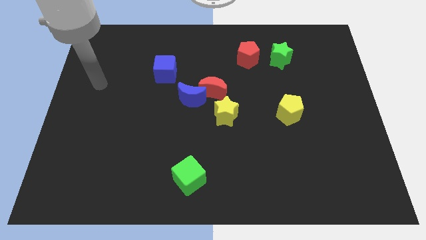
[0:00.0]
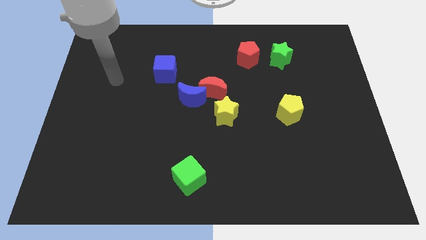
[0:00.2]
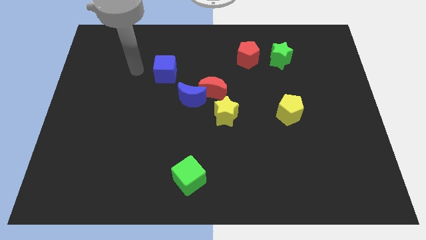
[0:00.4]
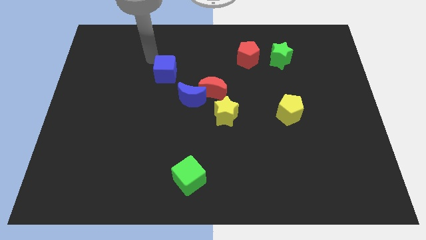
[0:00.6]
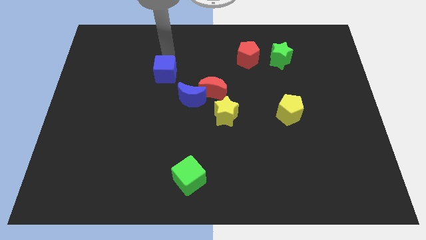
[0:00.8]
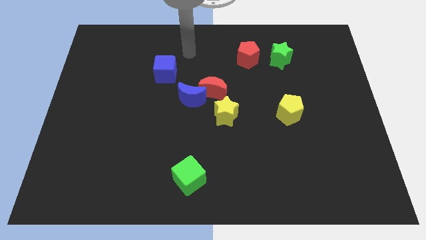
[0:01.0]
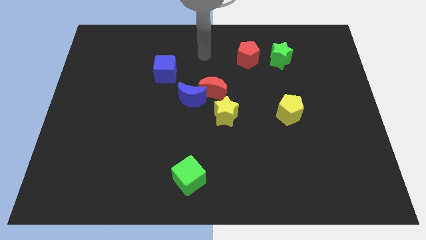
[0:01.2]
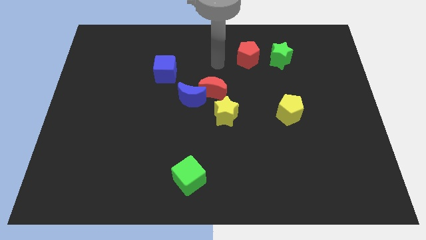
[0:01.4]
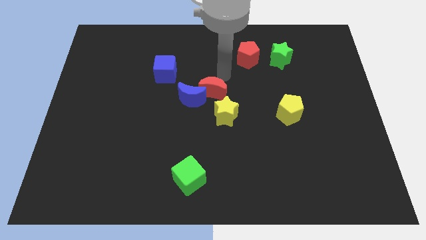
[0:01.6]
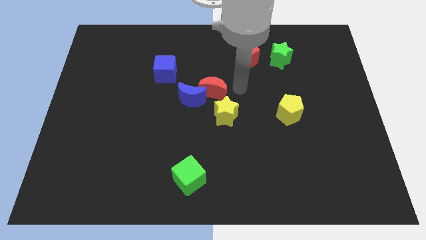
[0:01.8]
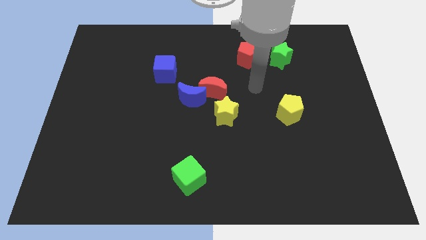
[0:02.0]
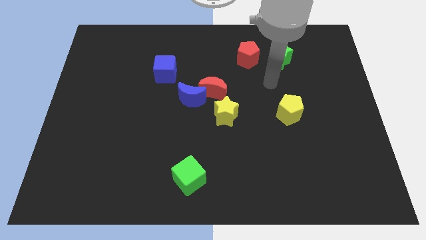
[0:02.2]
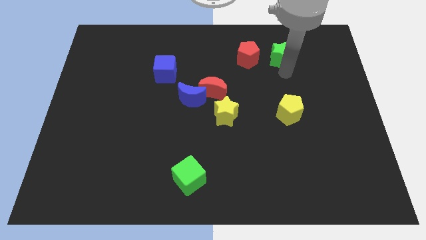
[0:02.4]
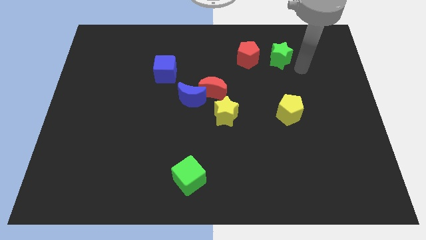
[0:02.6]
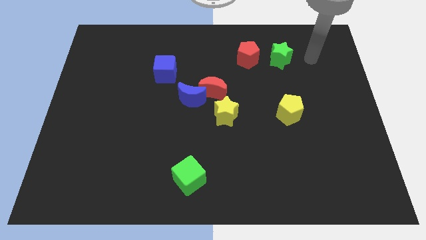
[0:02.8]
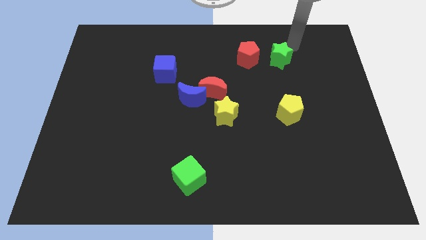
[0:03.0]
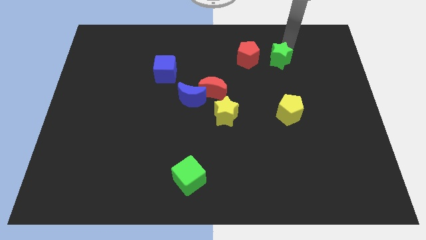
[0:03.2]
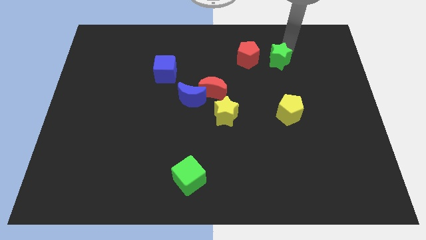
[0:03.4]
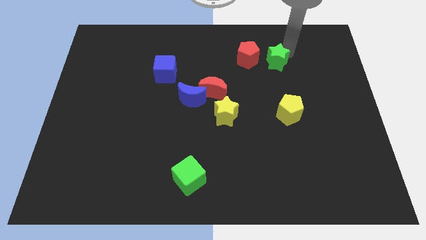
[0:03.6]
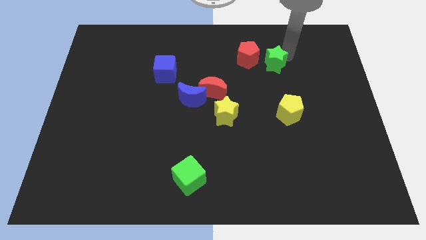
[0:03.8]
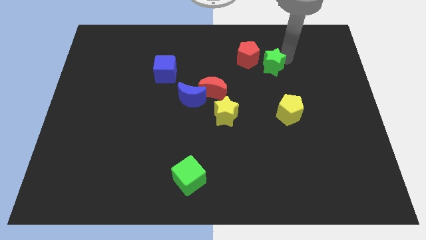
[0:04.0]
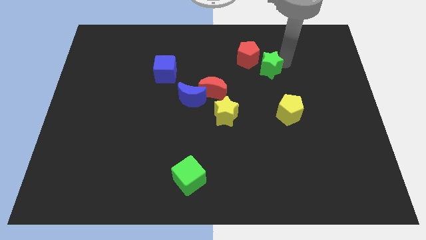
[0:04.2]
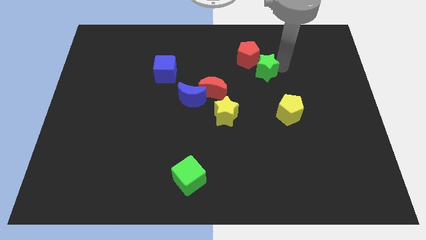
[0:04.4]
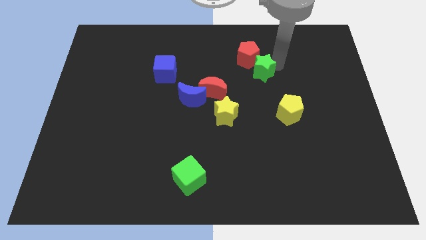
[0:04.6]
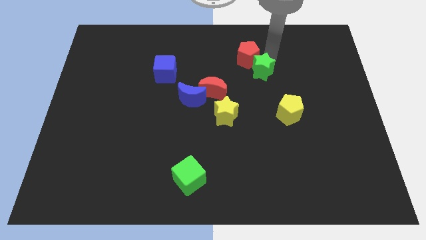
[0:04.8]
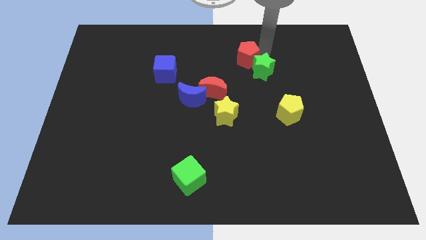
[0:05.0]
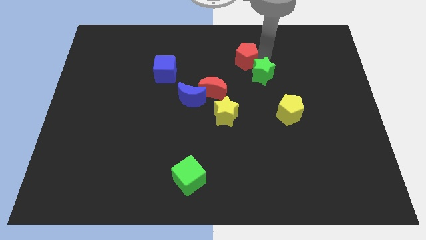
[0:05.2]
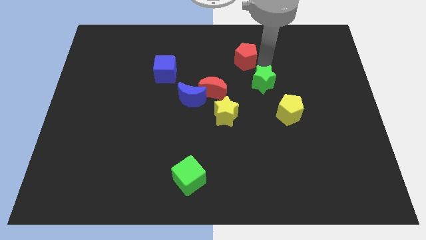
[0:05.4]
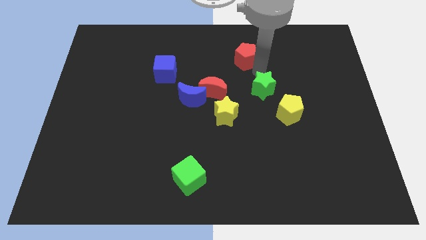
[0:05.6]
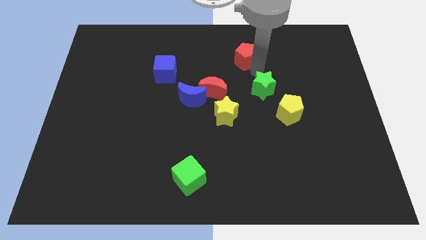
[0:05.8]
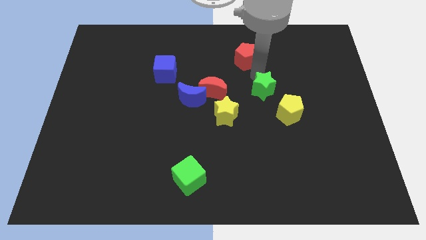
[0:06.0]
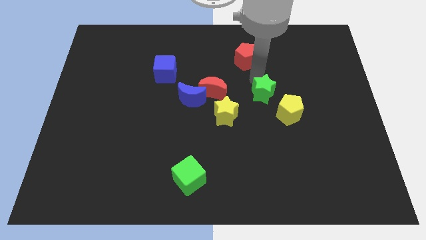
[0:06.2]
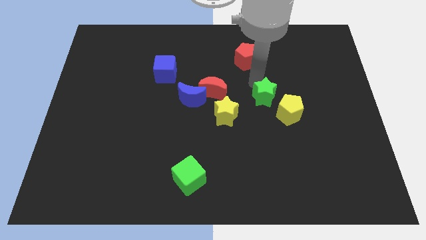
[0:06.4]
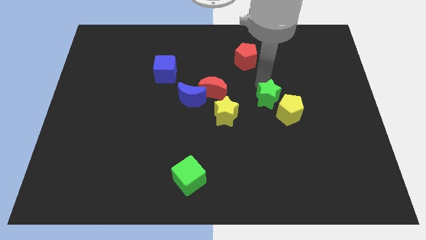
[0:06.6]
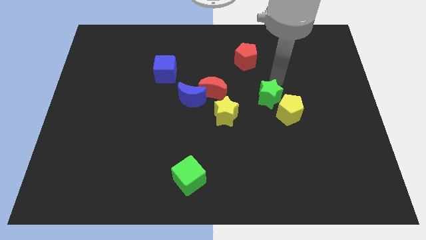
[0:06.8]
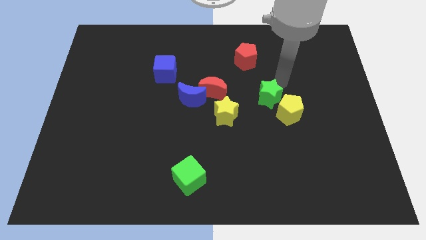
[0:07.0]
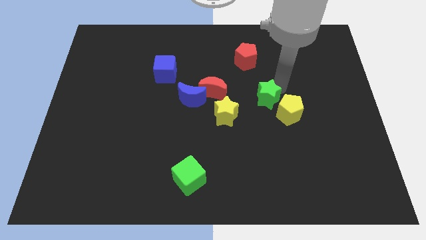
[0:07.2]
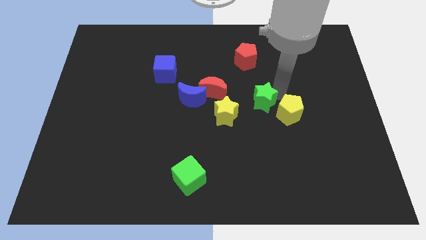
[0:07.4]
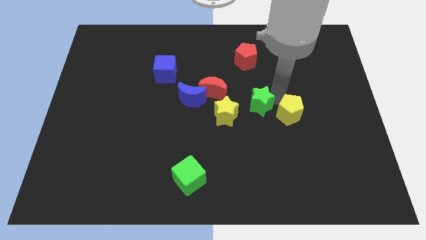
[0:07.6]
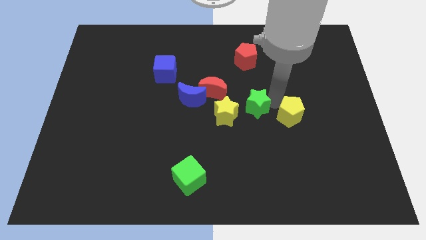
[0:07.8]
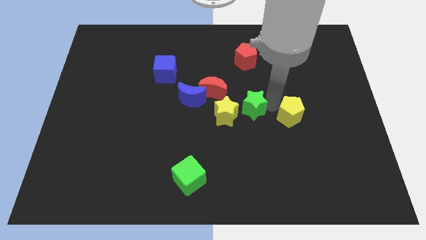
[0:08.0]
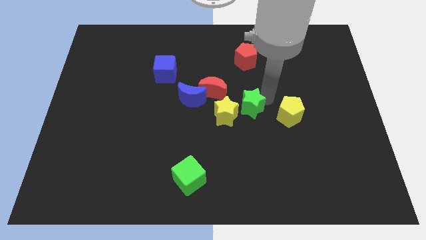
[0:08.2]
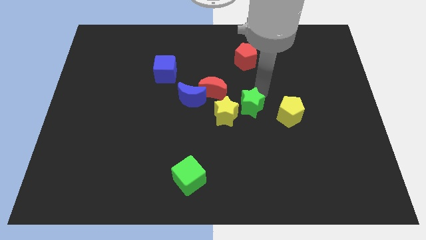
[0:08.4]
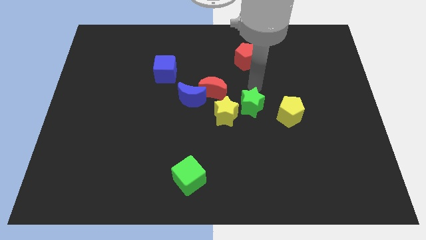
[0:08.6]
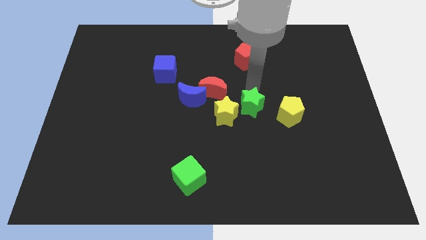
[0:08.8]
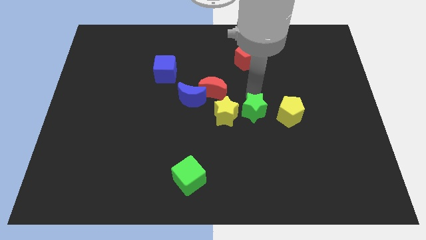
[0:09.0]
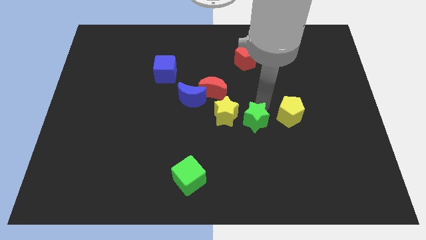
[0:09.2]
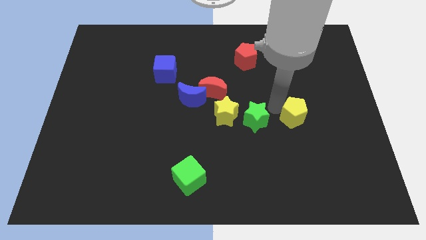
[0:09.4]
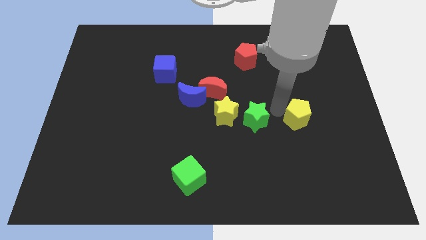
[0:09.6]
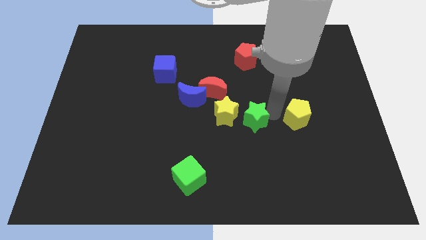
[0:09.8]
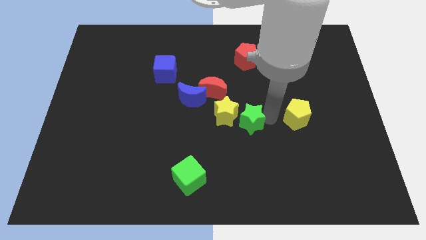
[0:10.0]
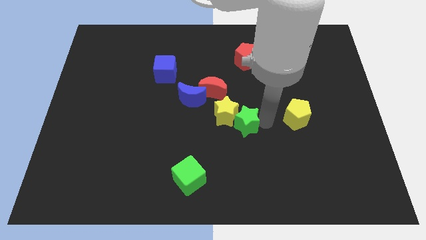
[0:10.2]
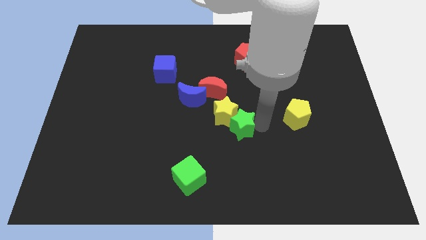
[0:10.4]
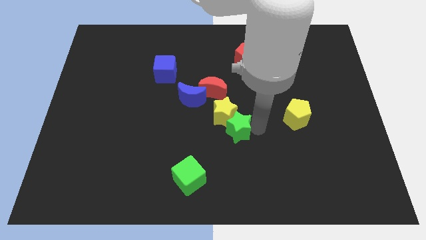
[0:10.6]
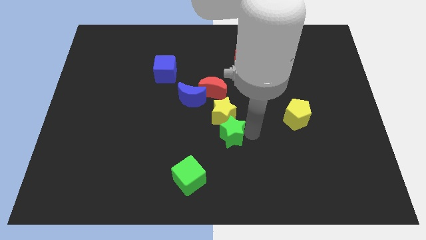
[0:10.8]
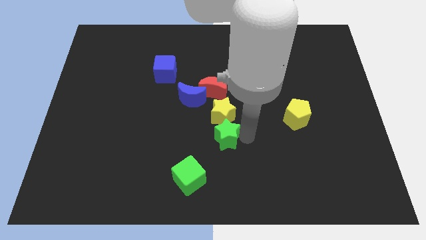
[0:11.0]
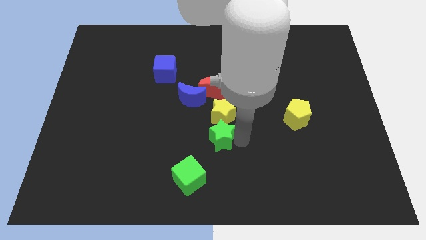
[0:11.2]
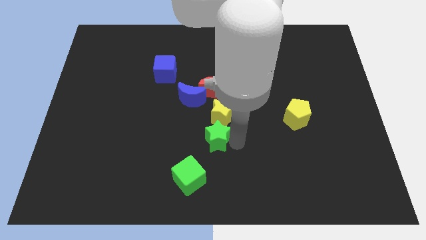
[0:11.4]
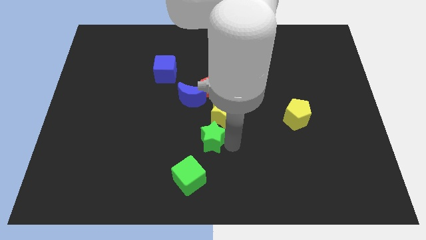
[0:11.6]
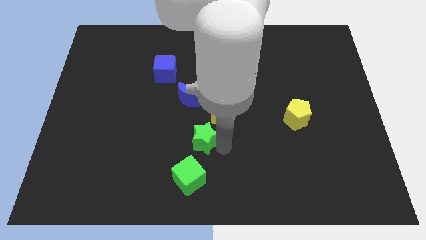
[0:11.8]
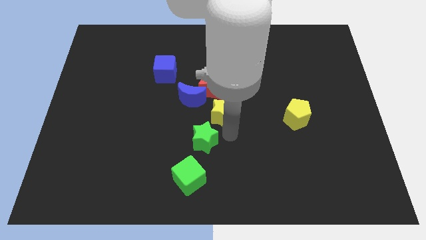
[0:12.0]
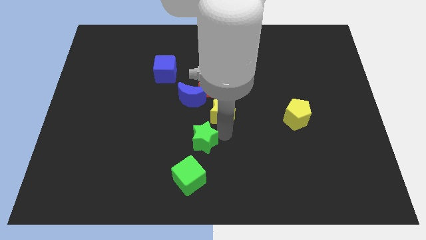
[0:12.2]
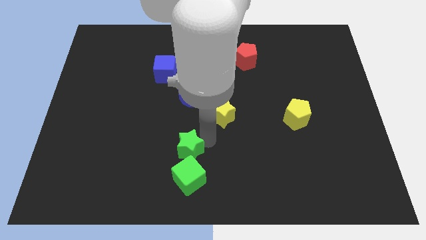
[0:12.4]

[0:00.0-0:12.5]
push the green star diagonally up and to the left of the green cube

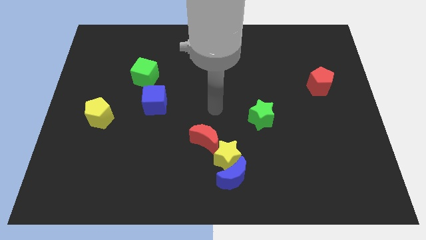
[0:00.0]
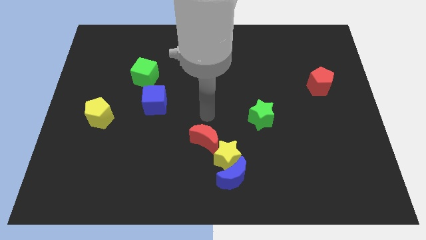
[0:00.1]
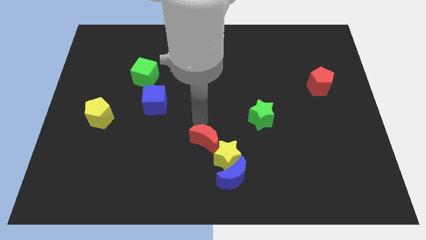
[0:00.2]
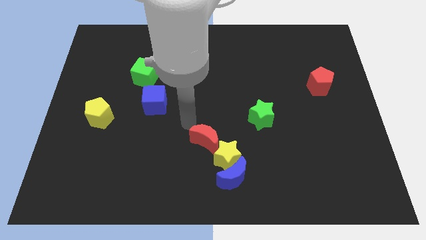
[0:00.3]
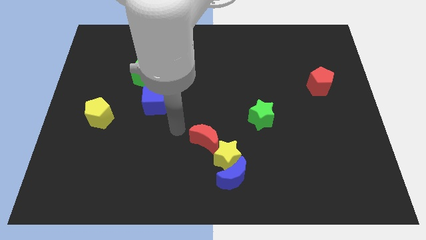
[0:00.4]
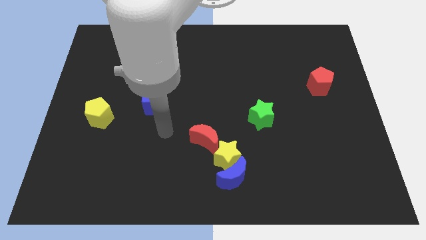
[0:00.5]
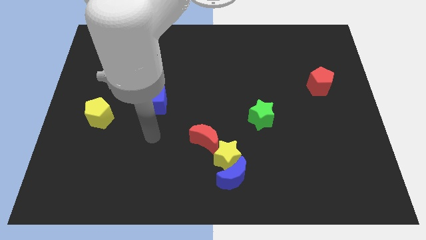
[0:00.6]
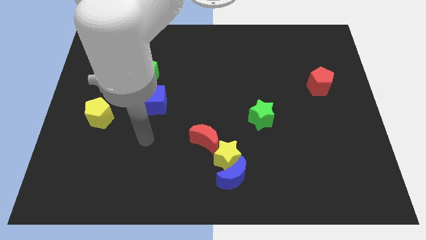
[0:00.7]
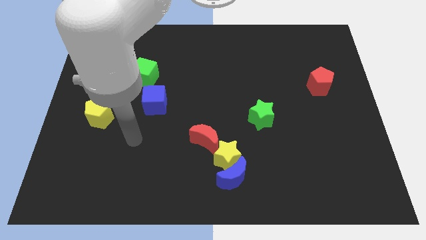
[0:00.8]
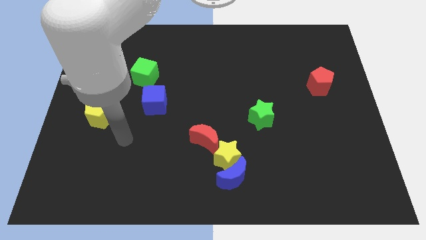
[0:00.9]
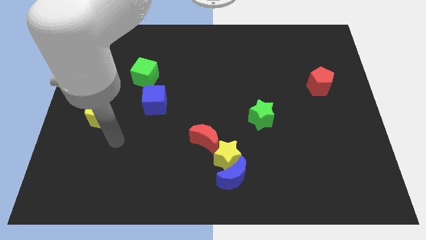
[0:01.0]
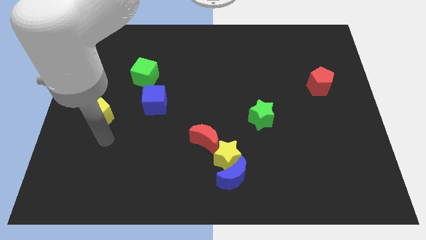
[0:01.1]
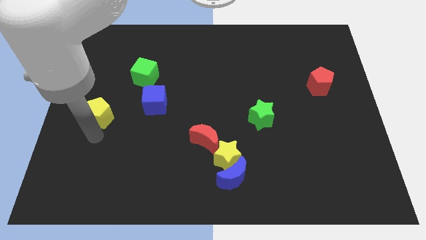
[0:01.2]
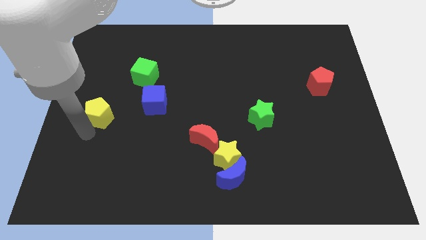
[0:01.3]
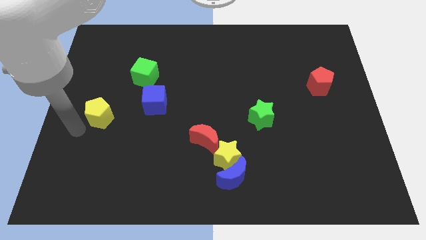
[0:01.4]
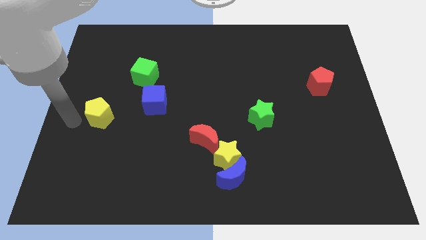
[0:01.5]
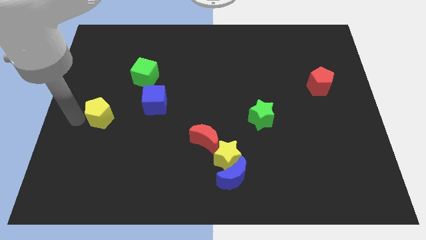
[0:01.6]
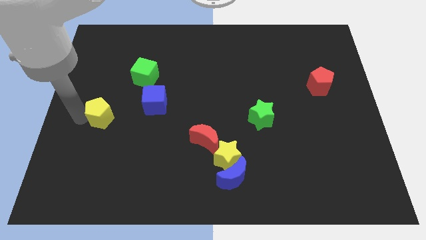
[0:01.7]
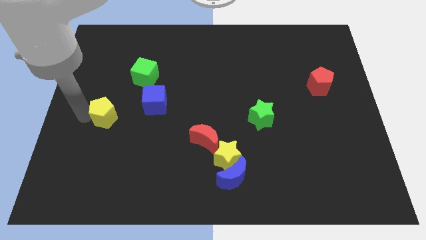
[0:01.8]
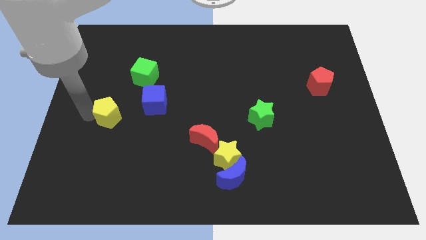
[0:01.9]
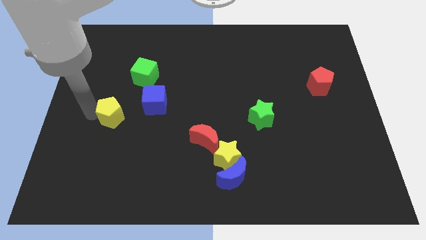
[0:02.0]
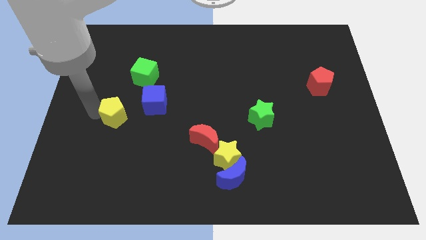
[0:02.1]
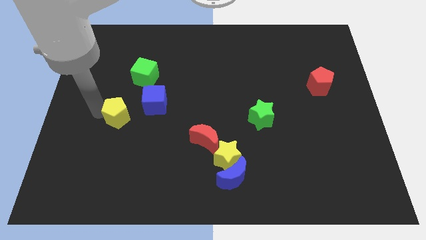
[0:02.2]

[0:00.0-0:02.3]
move the yellow pentagon to the bottom side of the green cube
